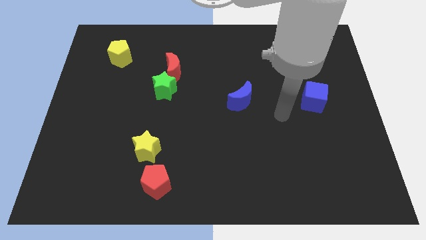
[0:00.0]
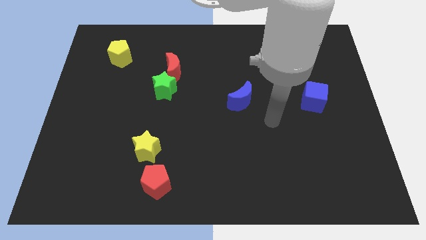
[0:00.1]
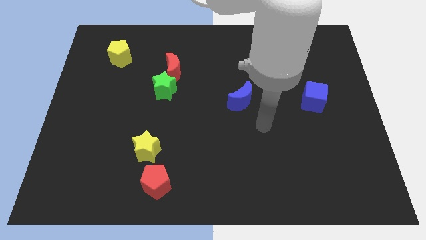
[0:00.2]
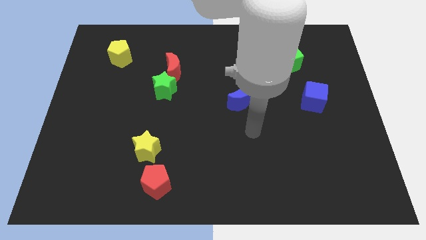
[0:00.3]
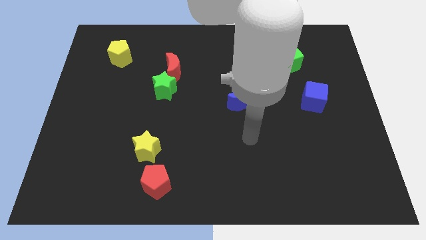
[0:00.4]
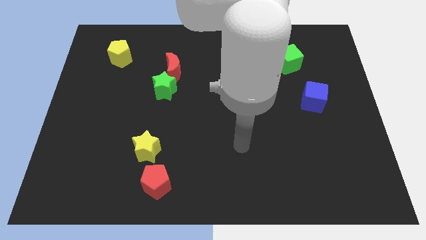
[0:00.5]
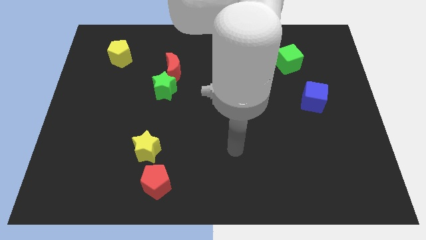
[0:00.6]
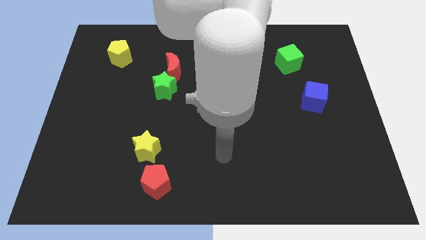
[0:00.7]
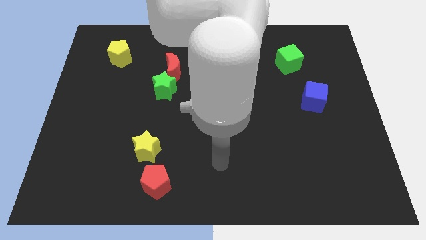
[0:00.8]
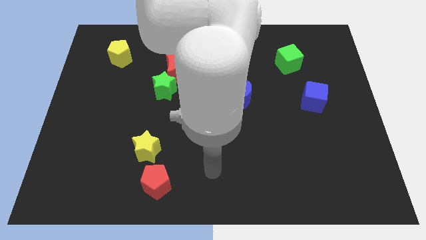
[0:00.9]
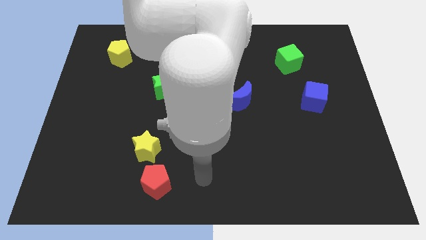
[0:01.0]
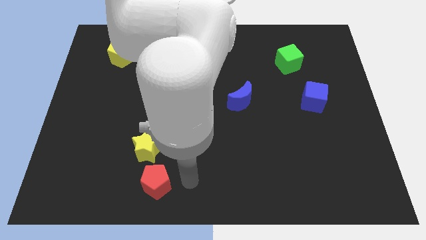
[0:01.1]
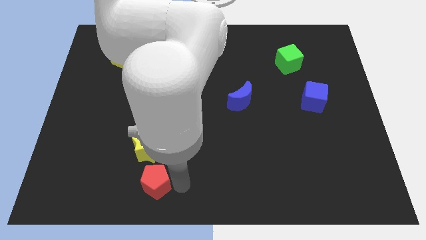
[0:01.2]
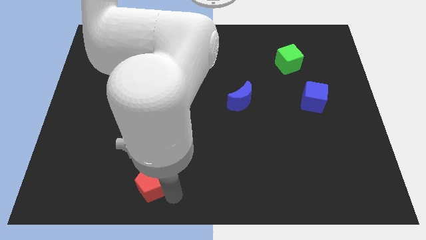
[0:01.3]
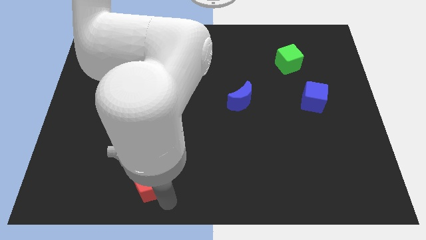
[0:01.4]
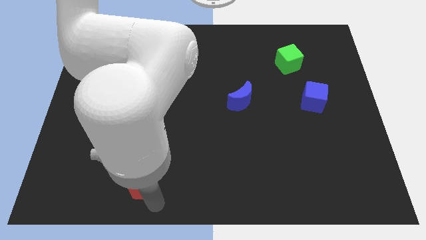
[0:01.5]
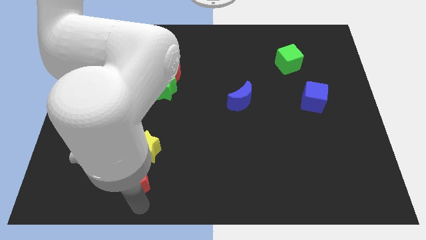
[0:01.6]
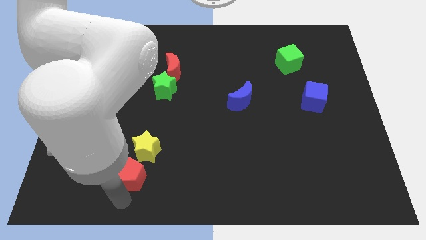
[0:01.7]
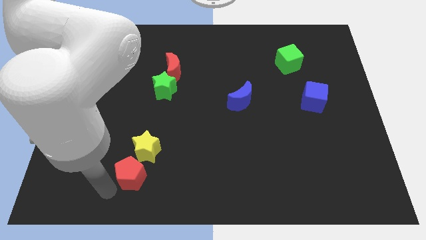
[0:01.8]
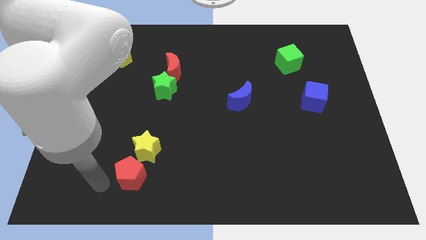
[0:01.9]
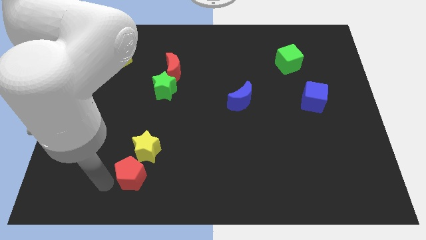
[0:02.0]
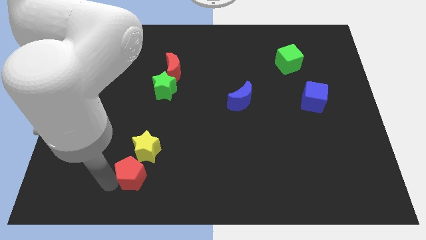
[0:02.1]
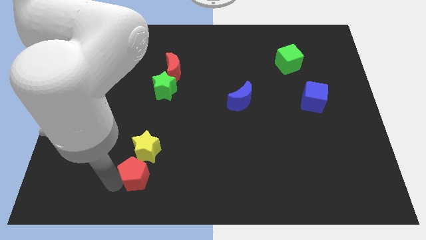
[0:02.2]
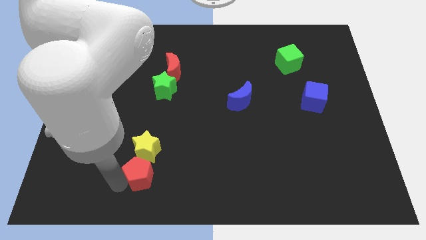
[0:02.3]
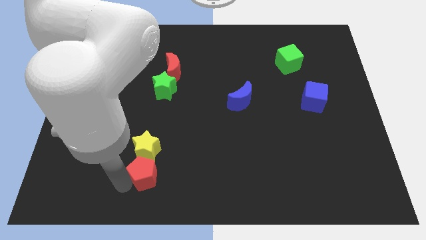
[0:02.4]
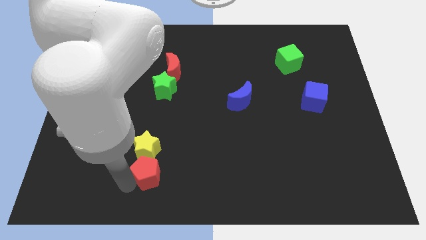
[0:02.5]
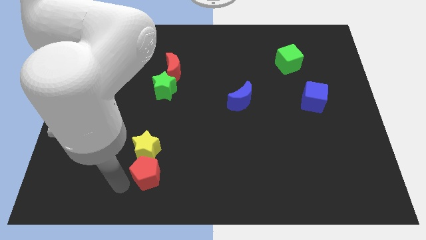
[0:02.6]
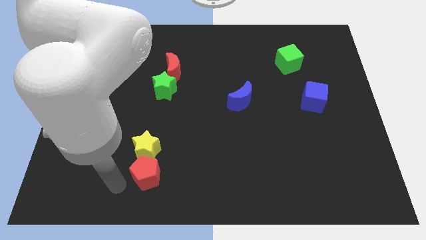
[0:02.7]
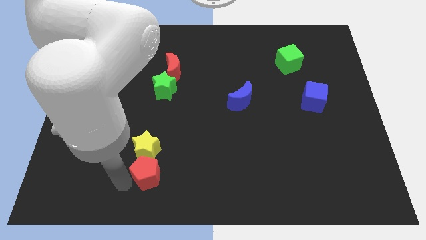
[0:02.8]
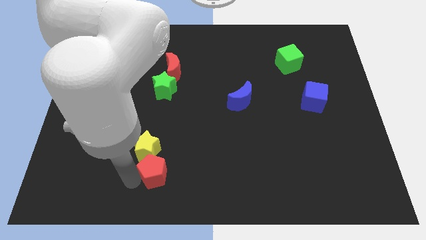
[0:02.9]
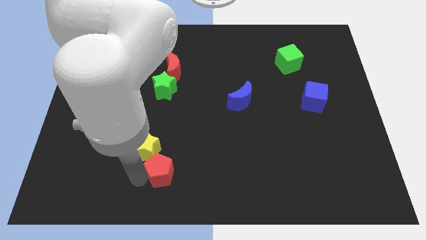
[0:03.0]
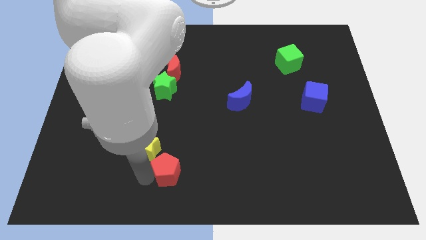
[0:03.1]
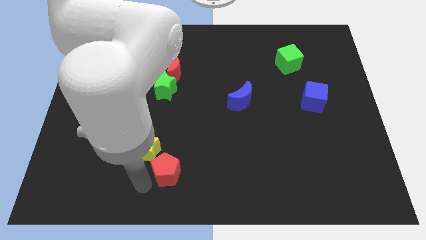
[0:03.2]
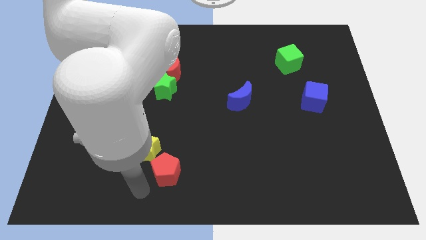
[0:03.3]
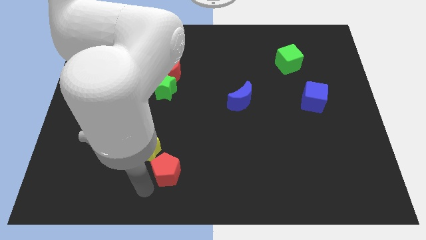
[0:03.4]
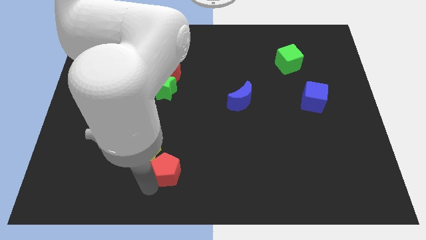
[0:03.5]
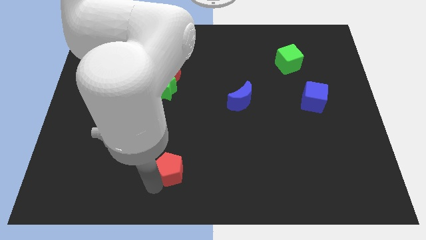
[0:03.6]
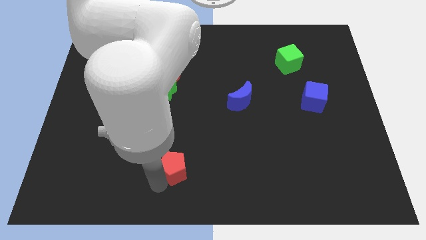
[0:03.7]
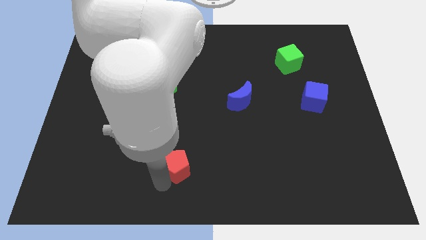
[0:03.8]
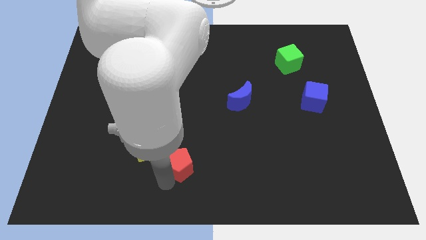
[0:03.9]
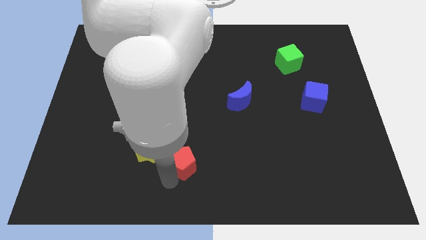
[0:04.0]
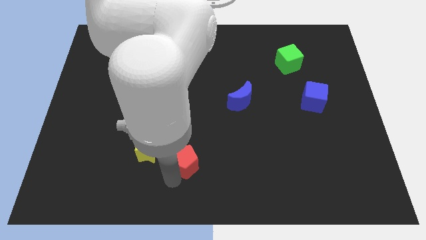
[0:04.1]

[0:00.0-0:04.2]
slide the red pentagon up and to the right a little

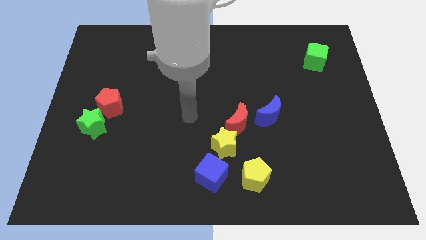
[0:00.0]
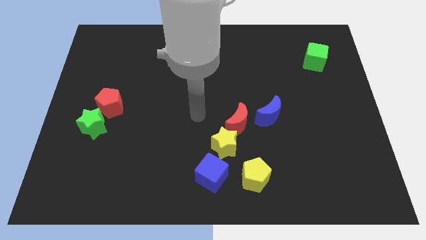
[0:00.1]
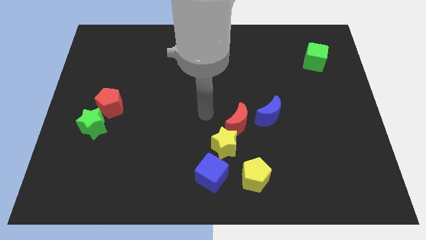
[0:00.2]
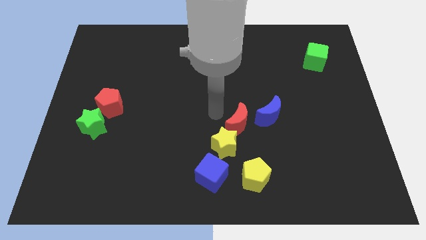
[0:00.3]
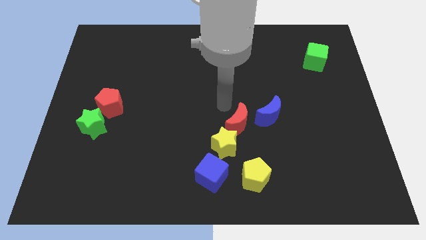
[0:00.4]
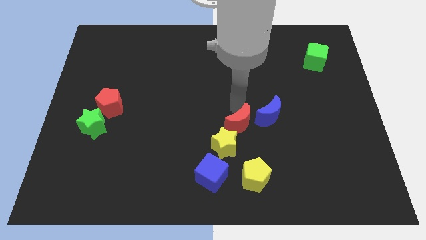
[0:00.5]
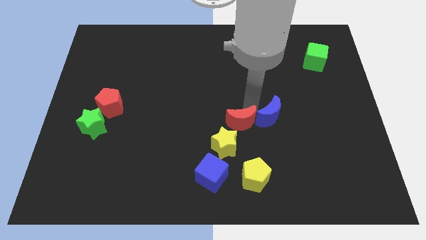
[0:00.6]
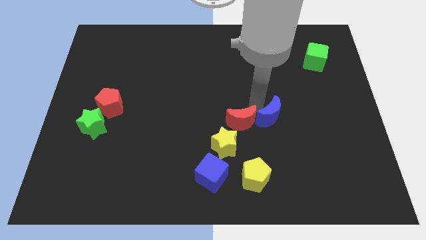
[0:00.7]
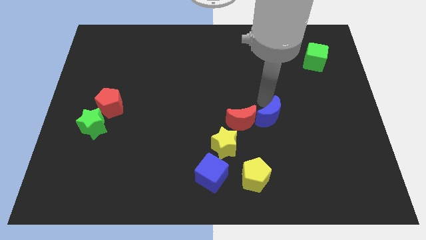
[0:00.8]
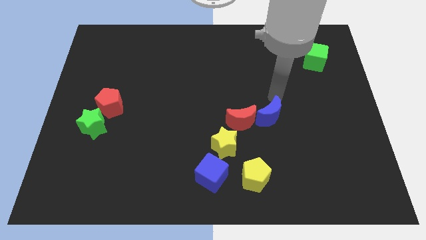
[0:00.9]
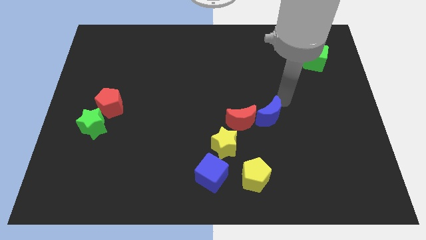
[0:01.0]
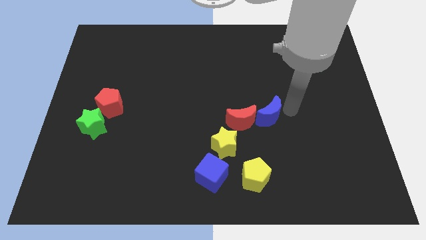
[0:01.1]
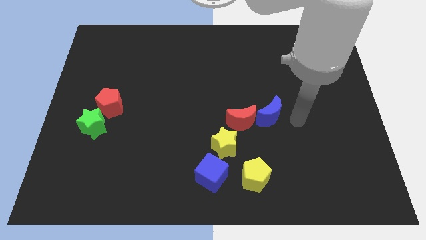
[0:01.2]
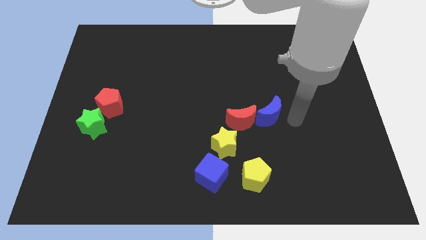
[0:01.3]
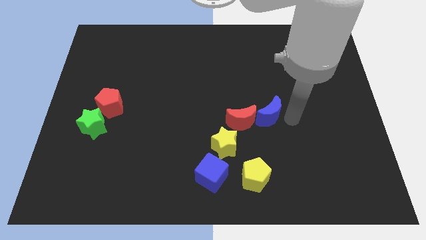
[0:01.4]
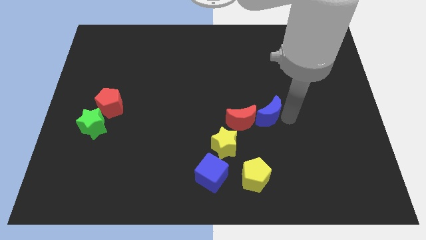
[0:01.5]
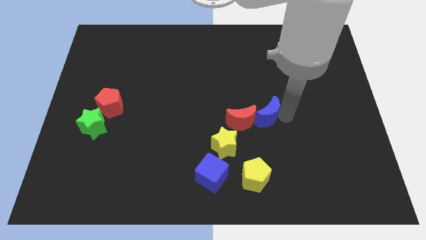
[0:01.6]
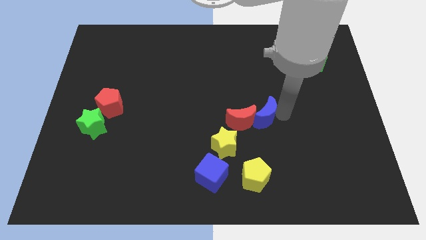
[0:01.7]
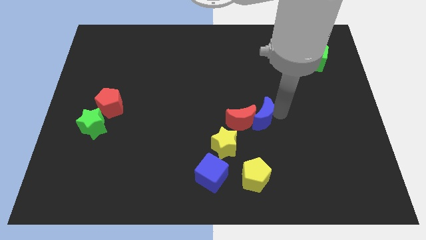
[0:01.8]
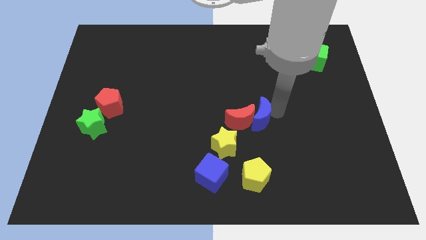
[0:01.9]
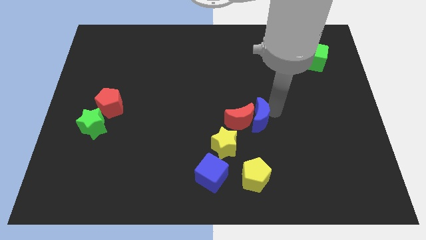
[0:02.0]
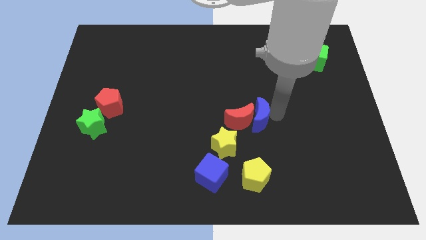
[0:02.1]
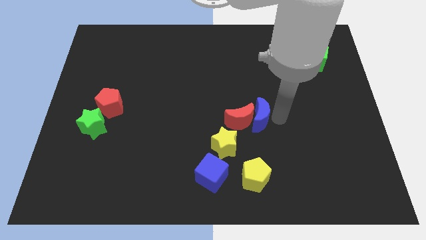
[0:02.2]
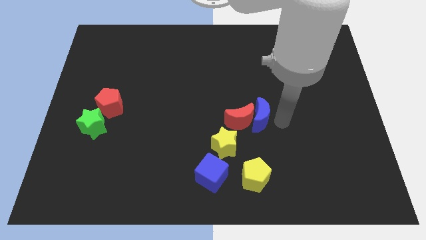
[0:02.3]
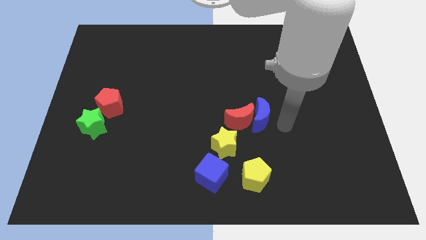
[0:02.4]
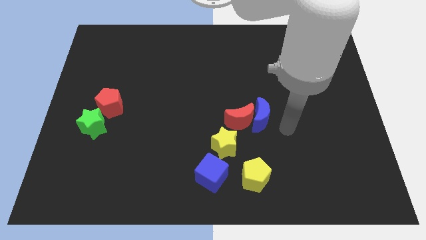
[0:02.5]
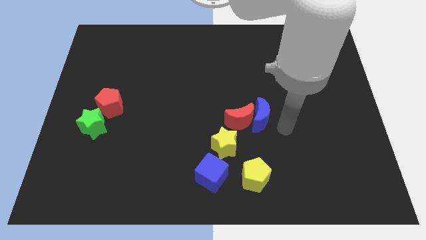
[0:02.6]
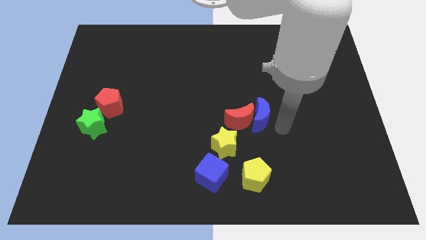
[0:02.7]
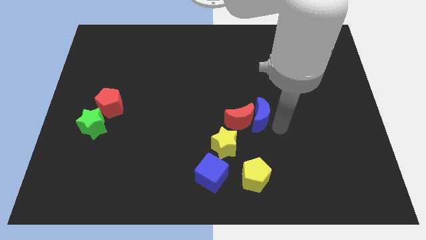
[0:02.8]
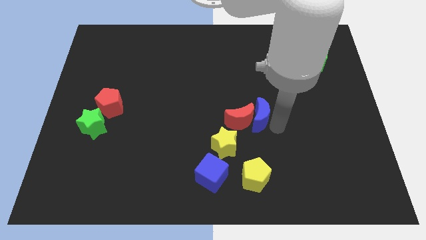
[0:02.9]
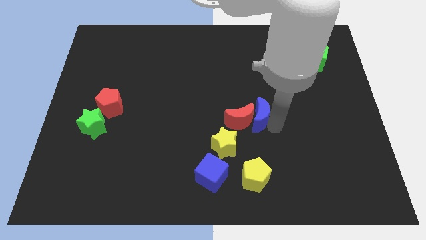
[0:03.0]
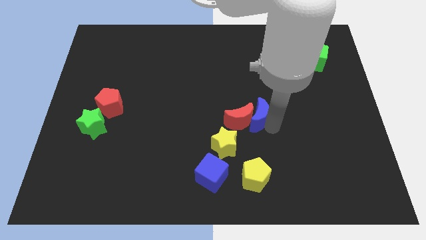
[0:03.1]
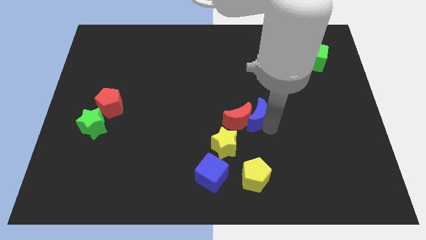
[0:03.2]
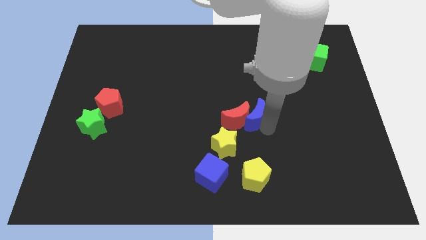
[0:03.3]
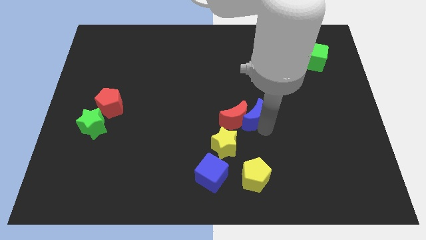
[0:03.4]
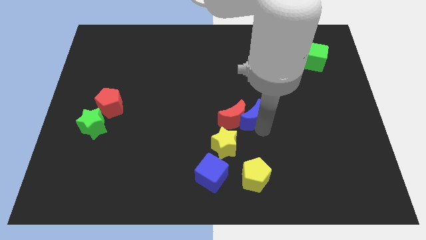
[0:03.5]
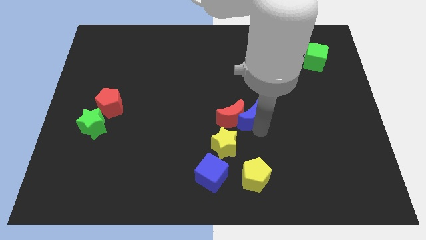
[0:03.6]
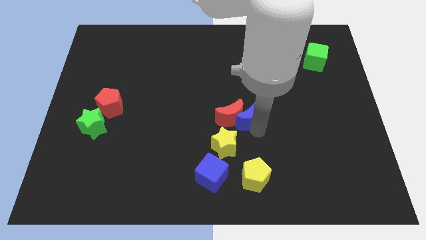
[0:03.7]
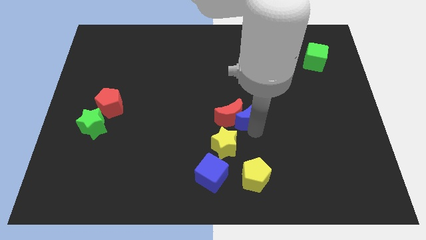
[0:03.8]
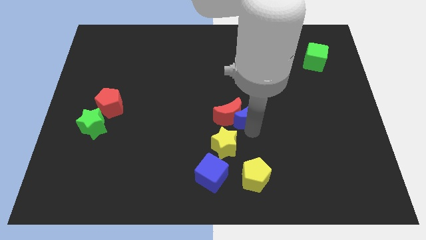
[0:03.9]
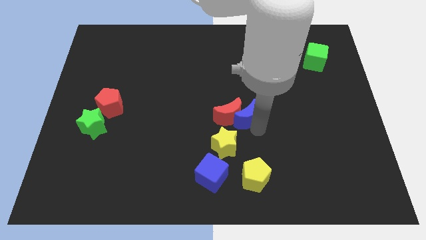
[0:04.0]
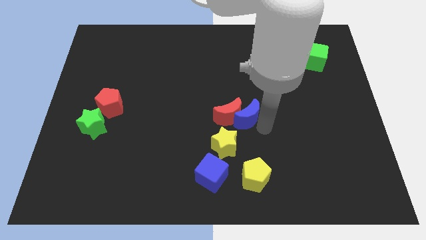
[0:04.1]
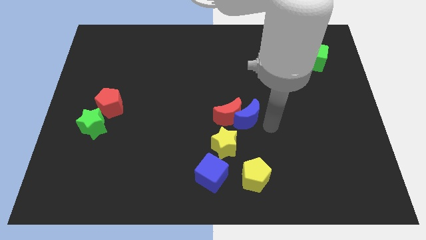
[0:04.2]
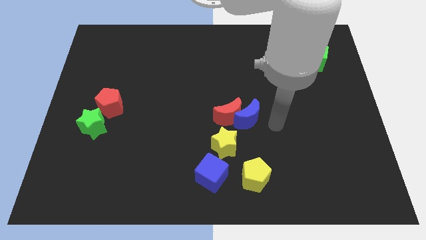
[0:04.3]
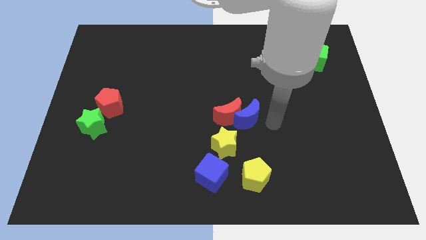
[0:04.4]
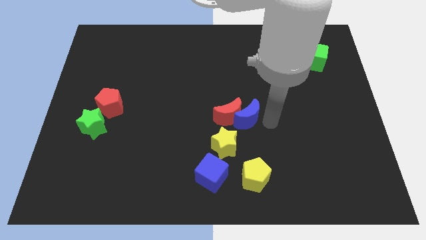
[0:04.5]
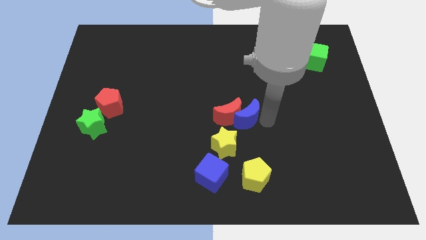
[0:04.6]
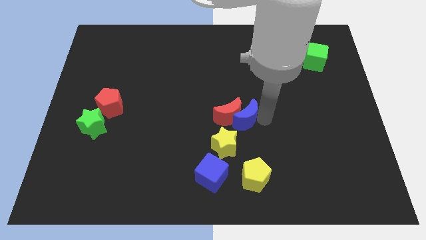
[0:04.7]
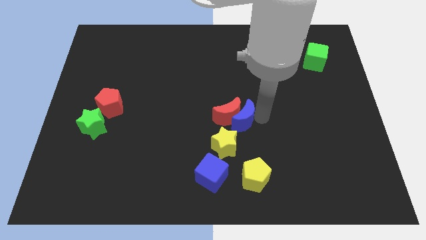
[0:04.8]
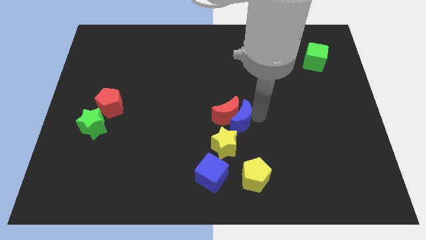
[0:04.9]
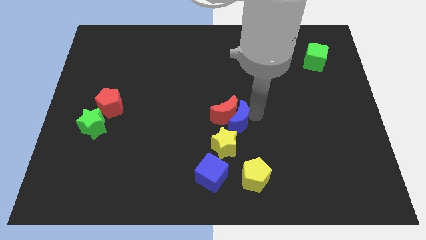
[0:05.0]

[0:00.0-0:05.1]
move the blue moon to the left a little
